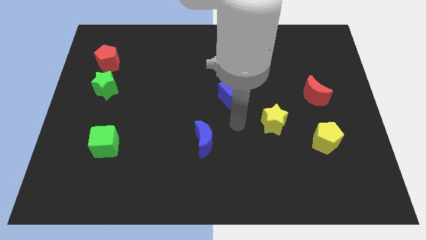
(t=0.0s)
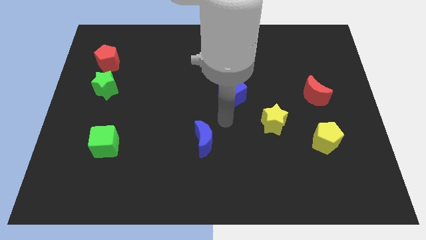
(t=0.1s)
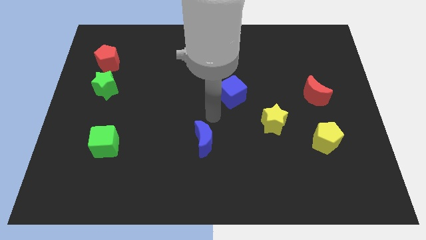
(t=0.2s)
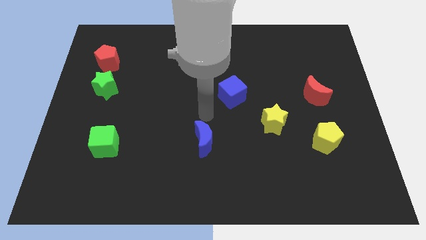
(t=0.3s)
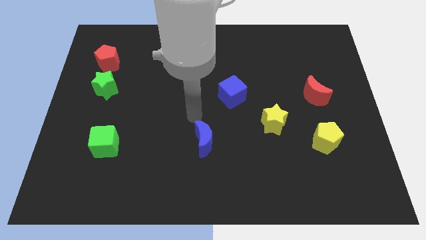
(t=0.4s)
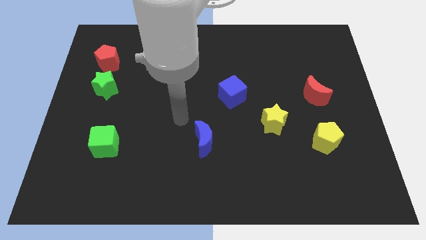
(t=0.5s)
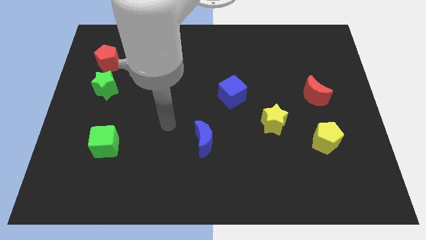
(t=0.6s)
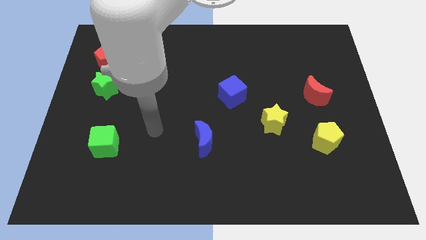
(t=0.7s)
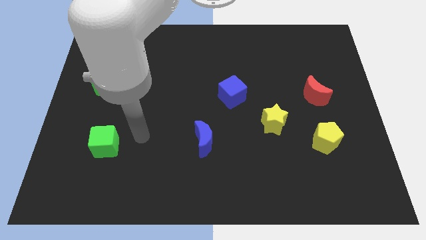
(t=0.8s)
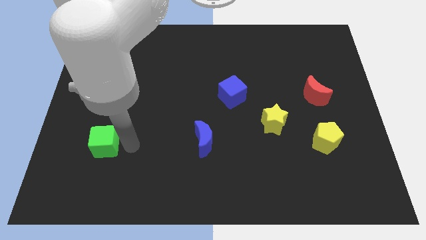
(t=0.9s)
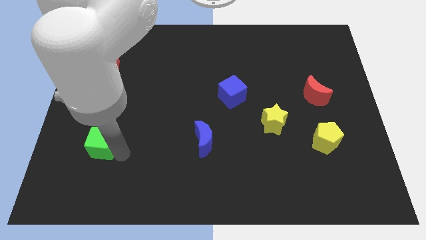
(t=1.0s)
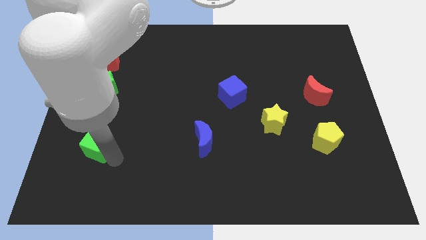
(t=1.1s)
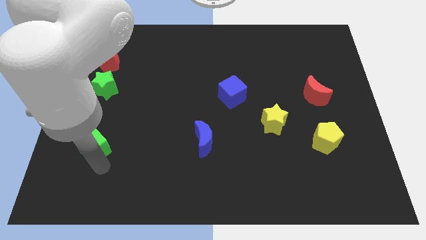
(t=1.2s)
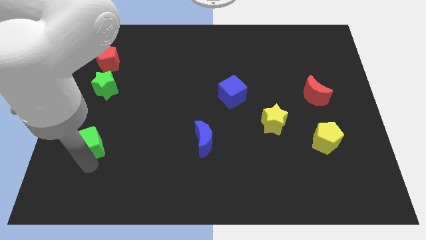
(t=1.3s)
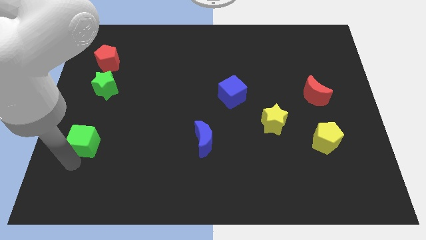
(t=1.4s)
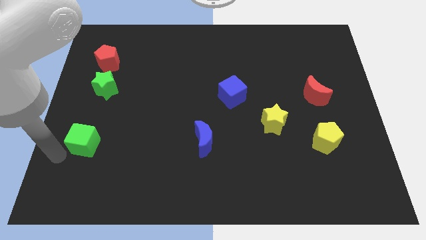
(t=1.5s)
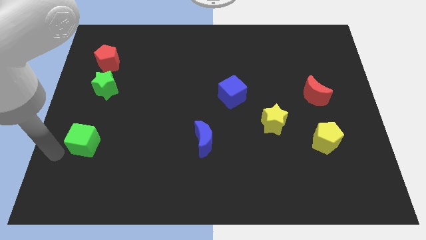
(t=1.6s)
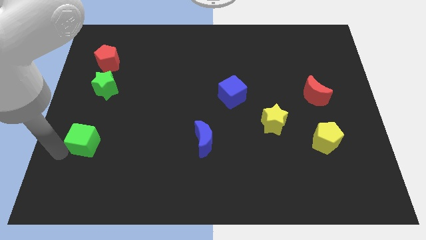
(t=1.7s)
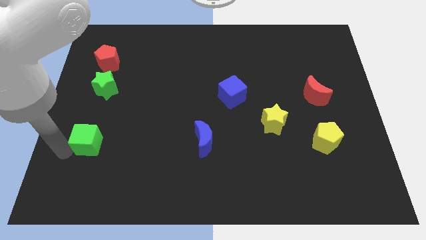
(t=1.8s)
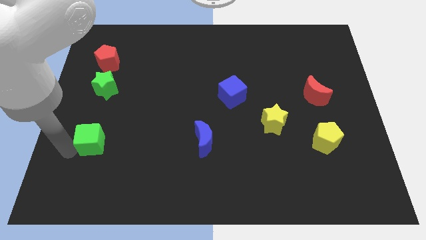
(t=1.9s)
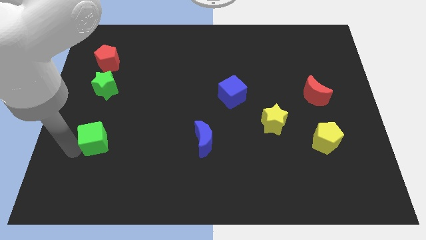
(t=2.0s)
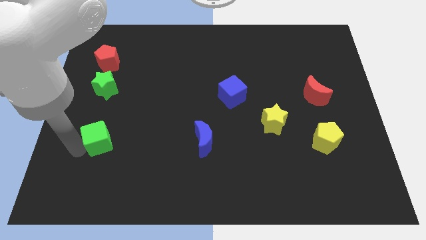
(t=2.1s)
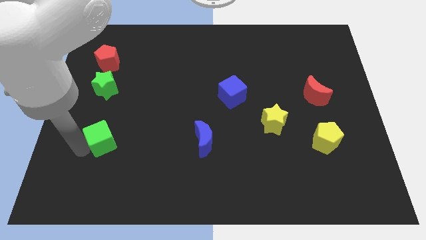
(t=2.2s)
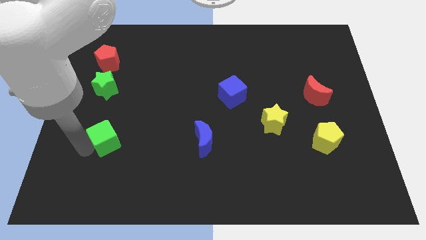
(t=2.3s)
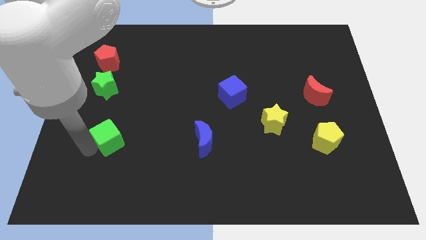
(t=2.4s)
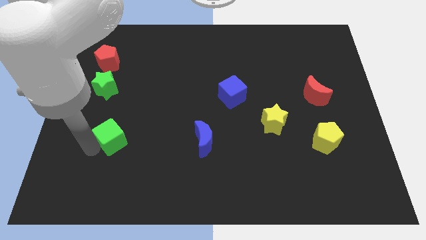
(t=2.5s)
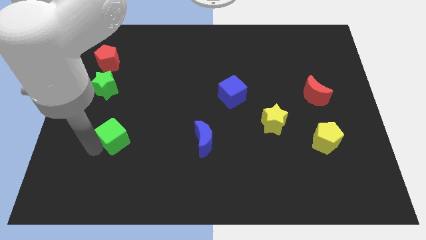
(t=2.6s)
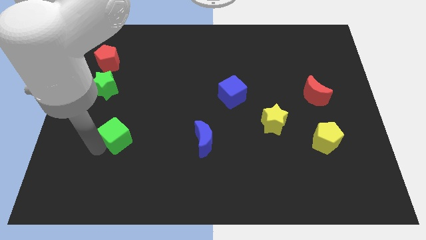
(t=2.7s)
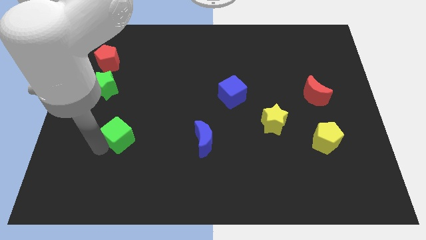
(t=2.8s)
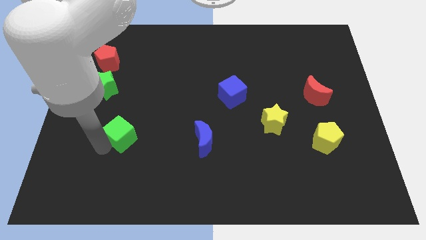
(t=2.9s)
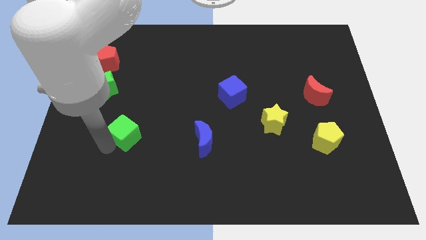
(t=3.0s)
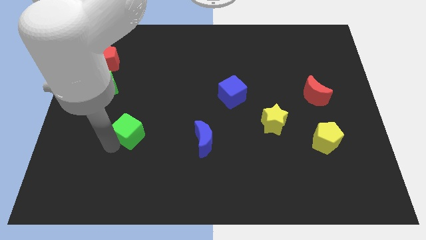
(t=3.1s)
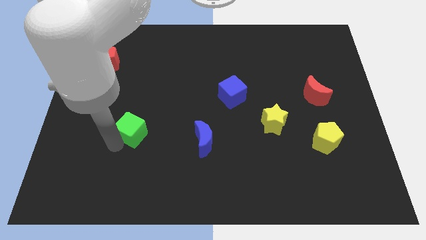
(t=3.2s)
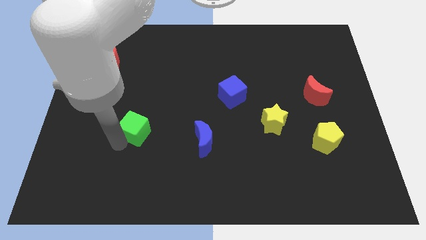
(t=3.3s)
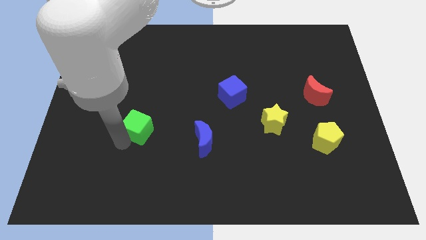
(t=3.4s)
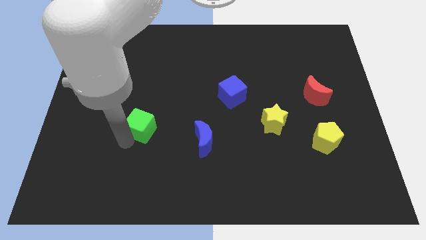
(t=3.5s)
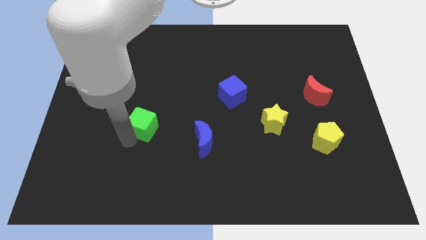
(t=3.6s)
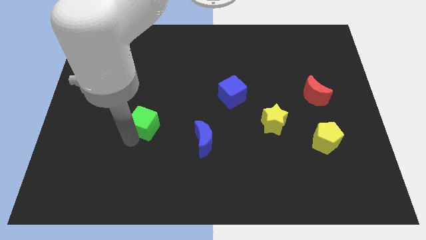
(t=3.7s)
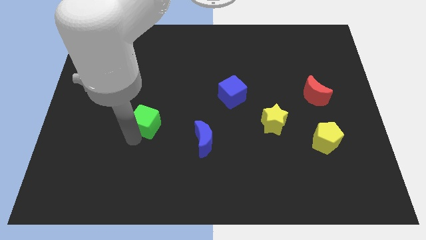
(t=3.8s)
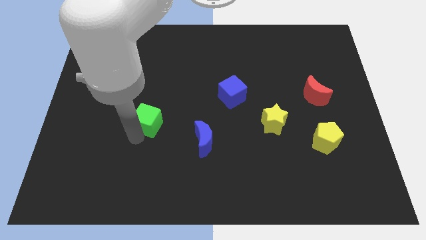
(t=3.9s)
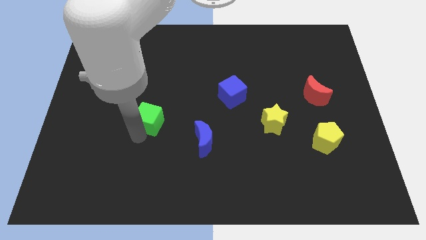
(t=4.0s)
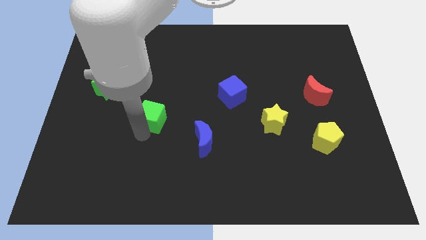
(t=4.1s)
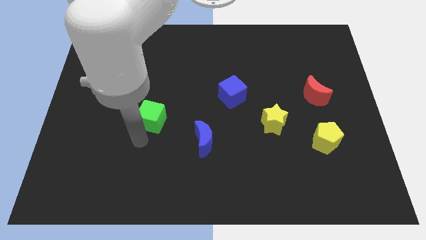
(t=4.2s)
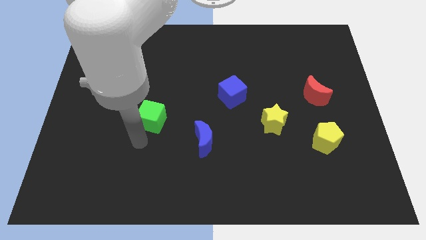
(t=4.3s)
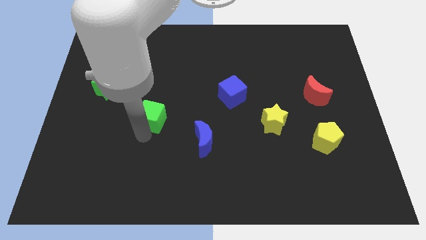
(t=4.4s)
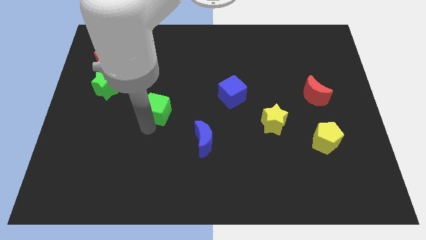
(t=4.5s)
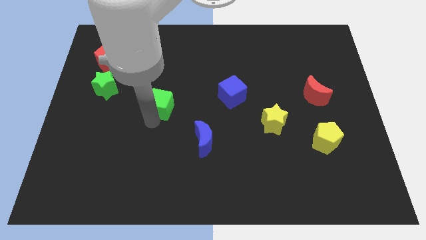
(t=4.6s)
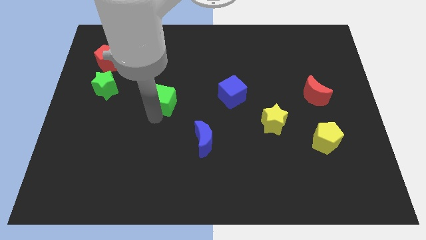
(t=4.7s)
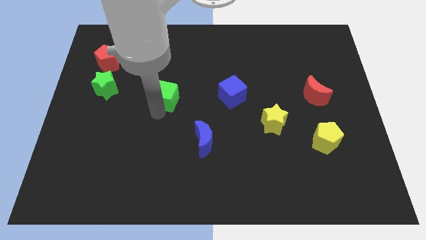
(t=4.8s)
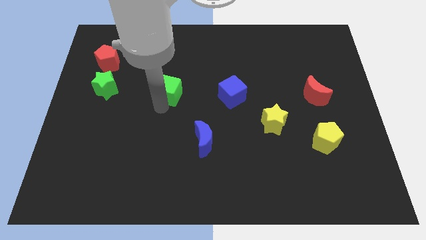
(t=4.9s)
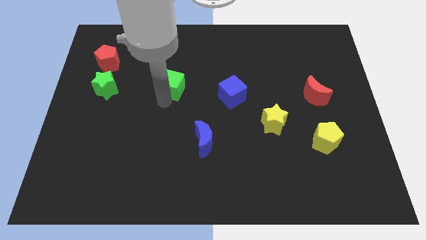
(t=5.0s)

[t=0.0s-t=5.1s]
move the green cube up and then right

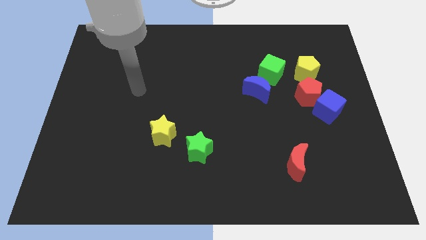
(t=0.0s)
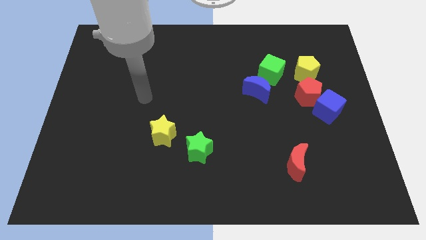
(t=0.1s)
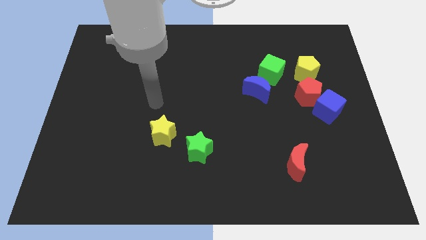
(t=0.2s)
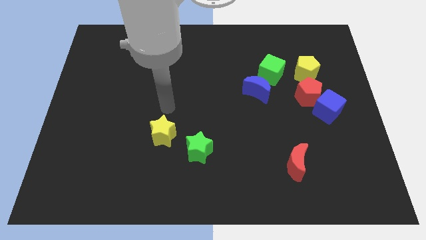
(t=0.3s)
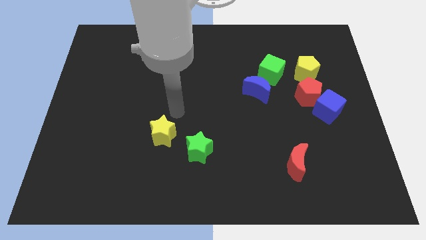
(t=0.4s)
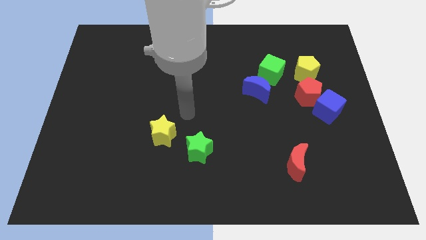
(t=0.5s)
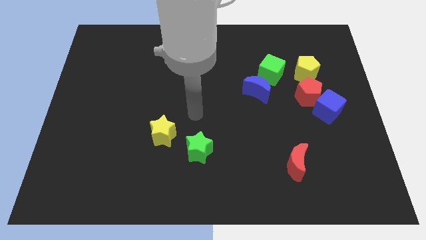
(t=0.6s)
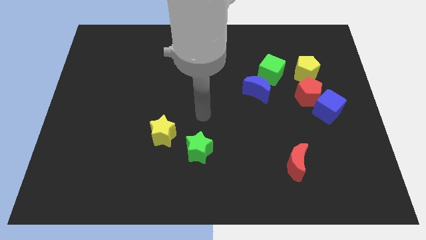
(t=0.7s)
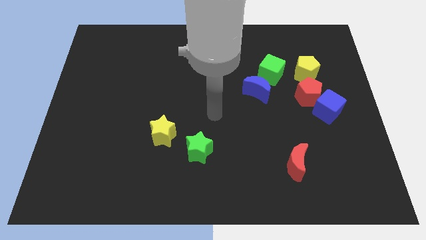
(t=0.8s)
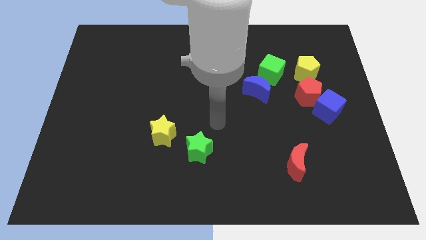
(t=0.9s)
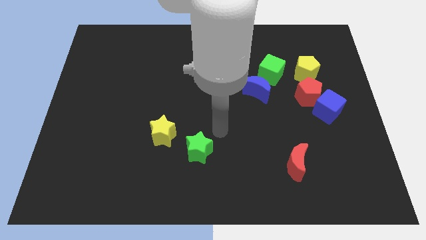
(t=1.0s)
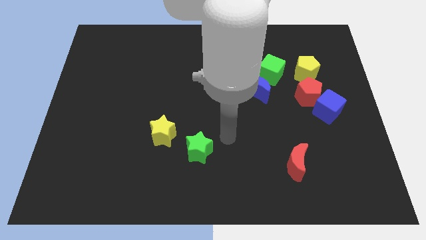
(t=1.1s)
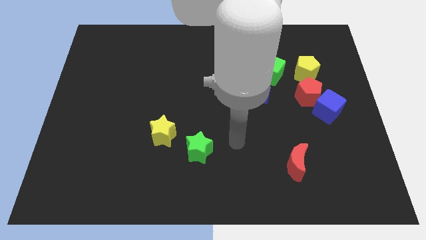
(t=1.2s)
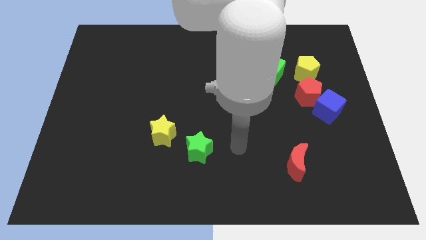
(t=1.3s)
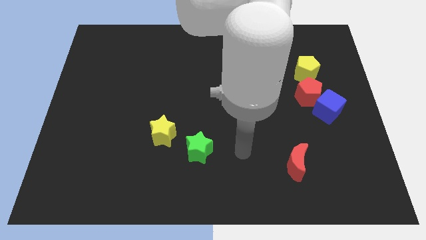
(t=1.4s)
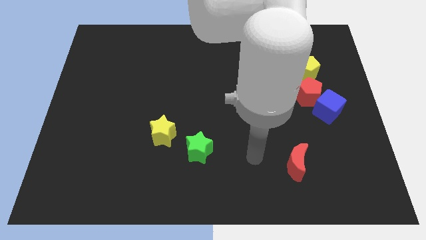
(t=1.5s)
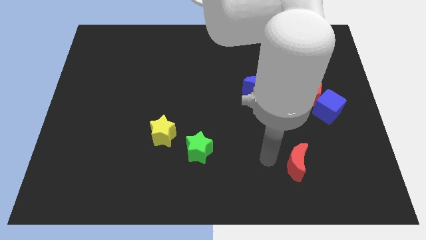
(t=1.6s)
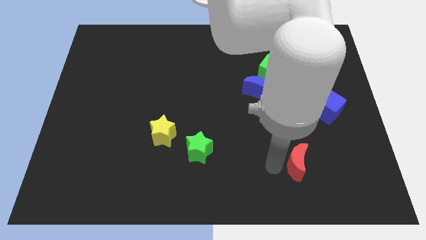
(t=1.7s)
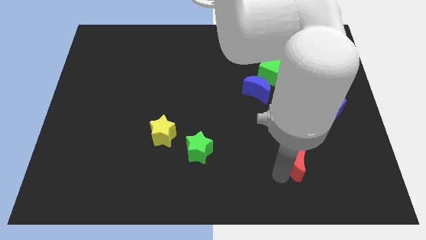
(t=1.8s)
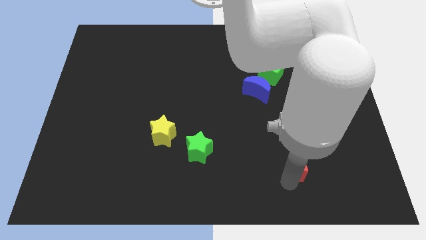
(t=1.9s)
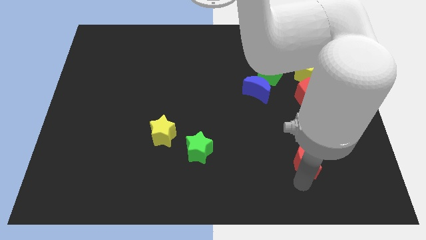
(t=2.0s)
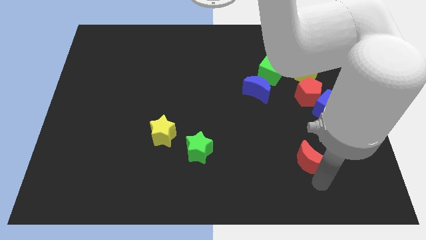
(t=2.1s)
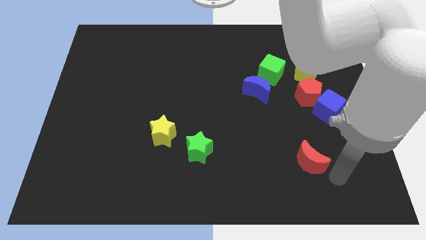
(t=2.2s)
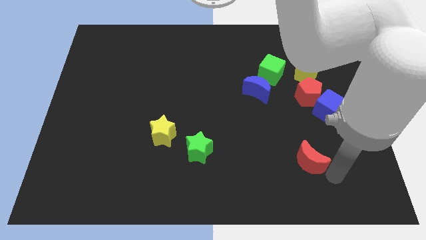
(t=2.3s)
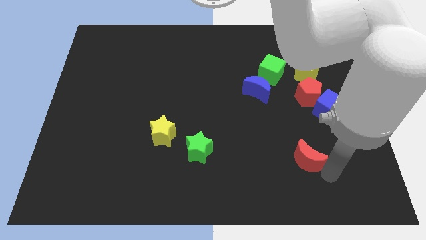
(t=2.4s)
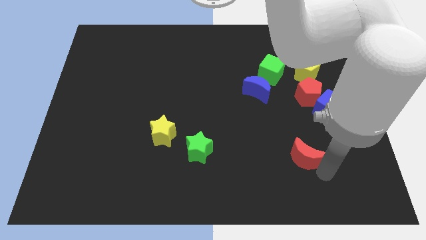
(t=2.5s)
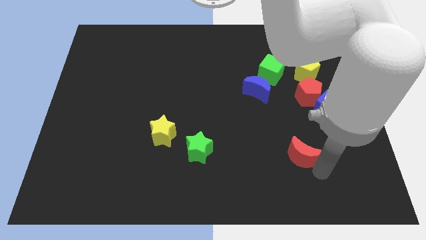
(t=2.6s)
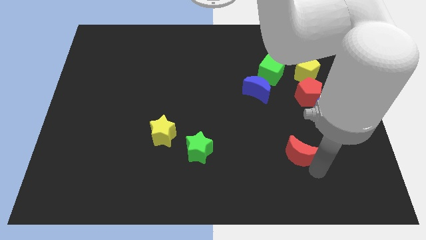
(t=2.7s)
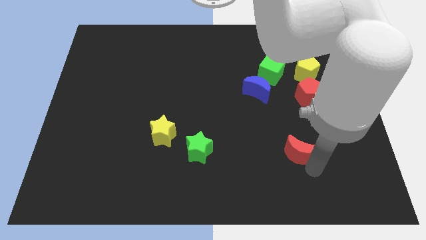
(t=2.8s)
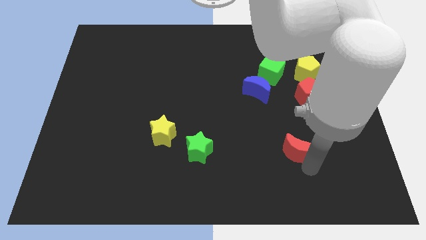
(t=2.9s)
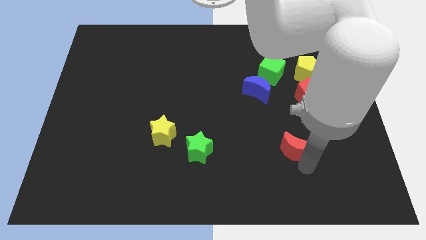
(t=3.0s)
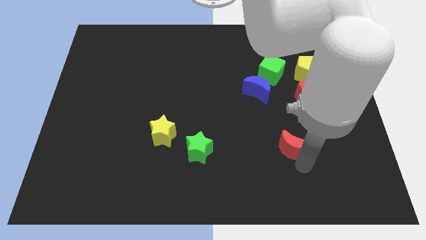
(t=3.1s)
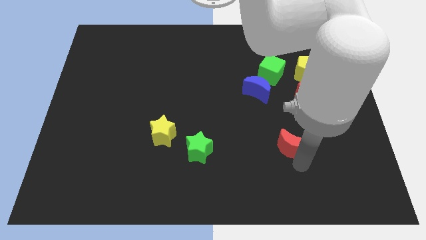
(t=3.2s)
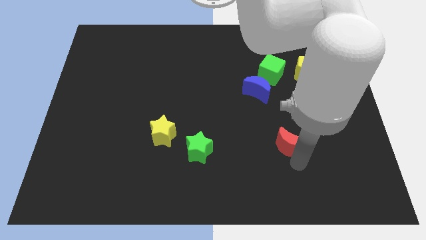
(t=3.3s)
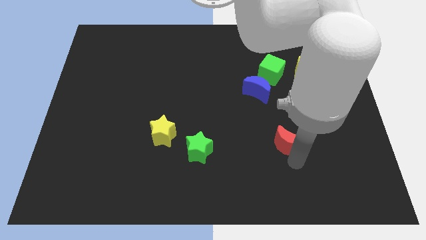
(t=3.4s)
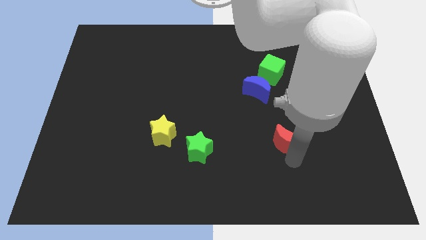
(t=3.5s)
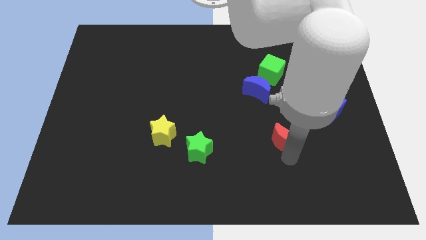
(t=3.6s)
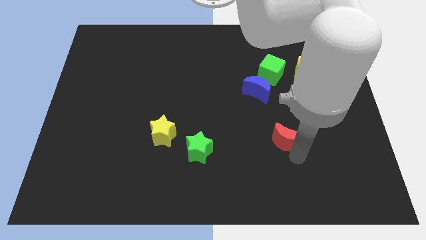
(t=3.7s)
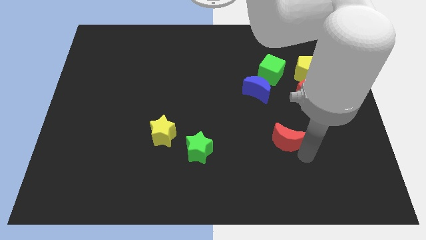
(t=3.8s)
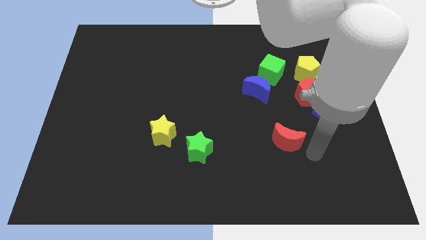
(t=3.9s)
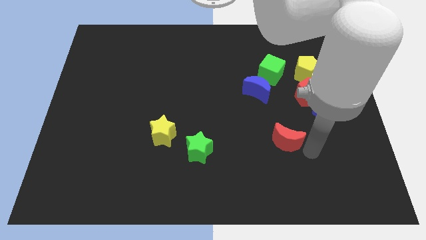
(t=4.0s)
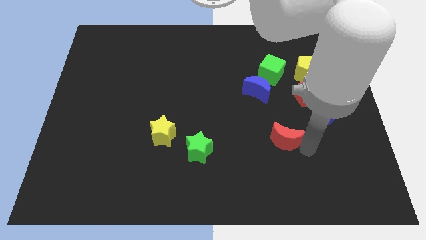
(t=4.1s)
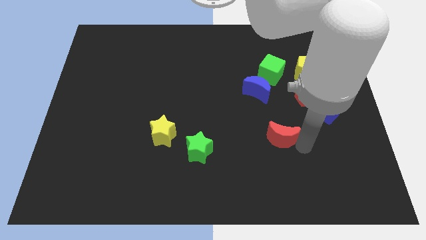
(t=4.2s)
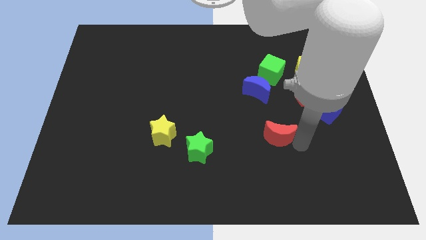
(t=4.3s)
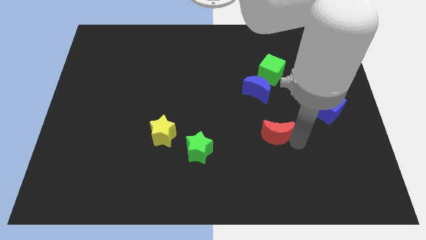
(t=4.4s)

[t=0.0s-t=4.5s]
slightly slide the red moon up and to the left
